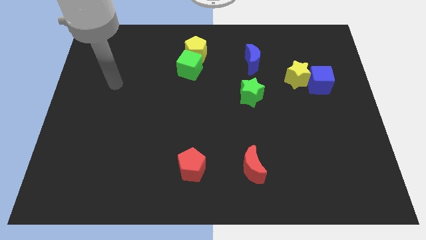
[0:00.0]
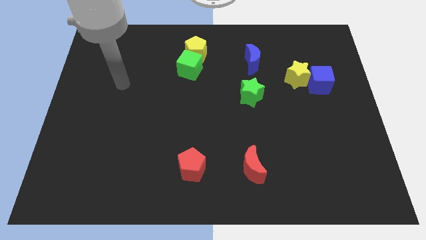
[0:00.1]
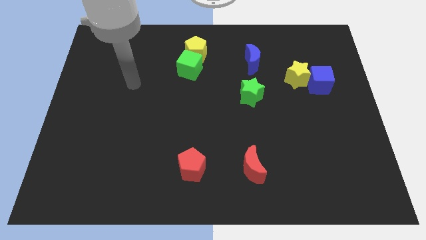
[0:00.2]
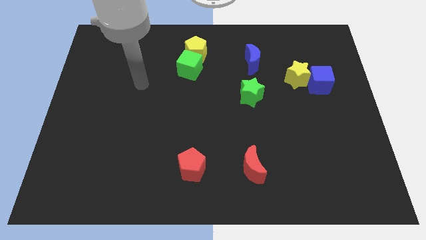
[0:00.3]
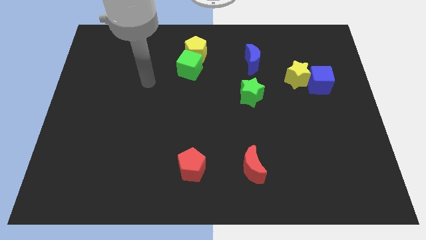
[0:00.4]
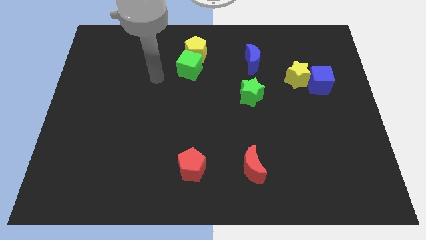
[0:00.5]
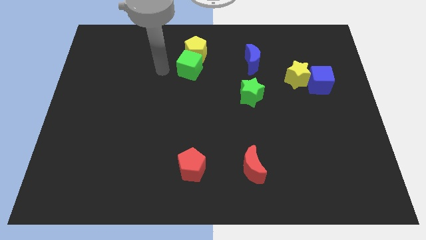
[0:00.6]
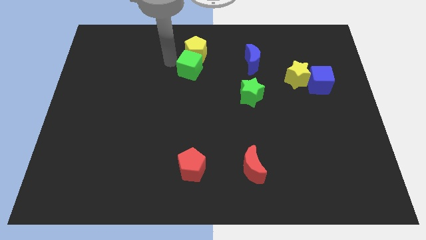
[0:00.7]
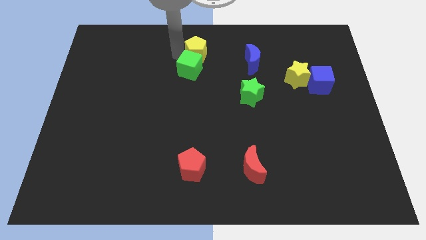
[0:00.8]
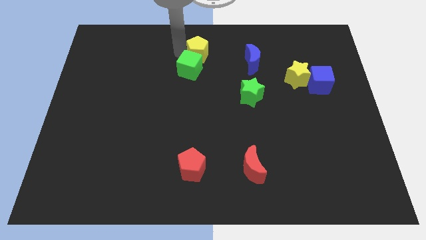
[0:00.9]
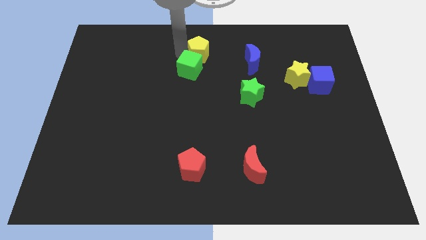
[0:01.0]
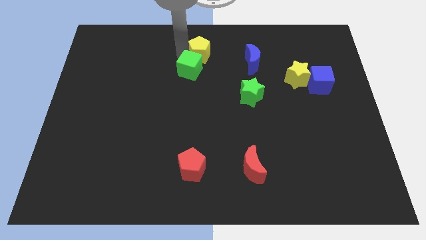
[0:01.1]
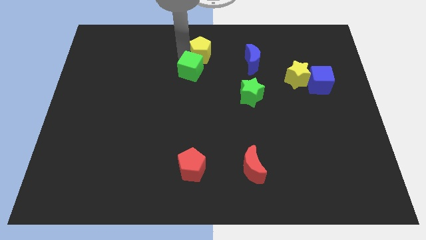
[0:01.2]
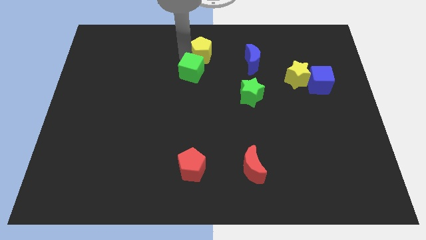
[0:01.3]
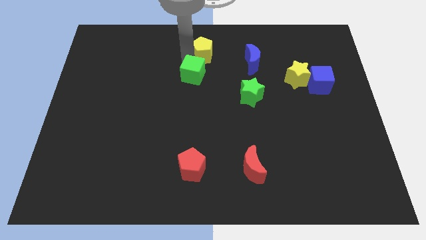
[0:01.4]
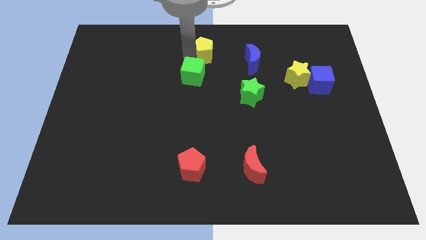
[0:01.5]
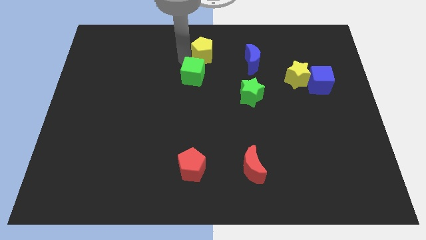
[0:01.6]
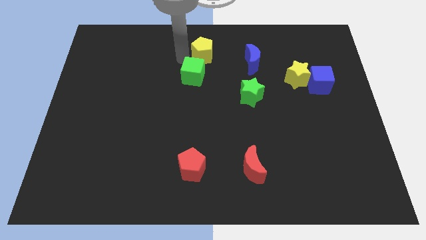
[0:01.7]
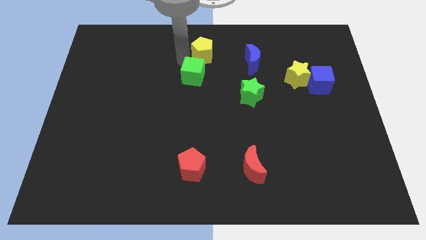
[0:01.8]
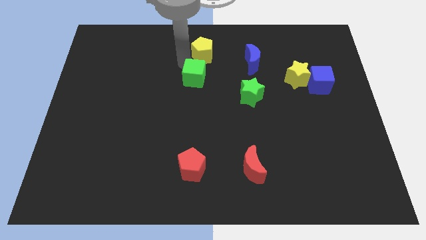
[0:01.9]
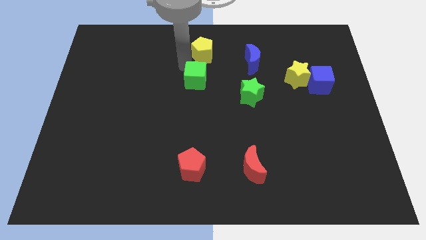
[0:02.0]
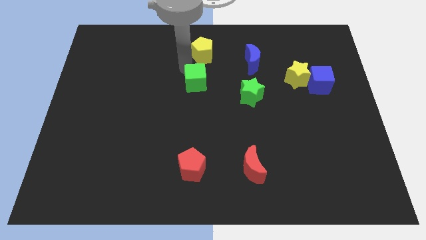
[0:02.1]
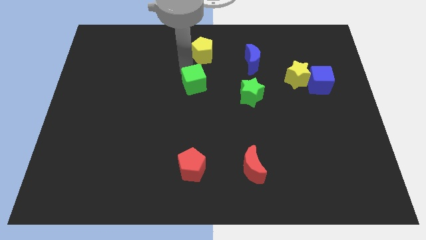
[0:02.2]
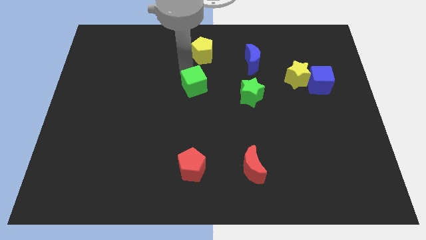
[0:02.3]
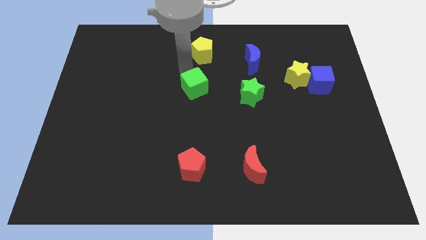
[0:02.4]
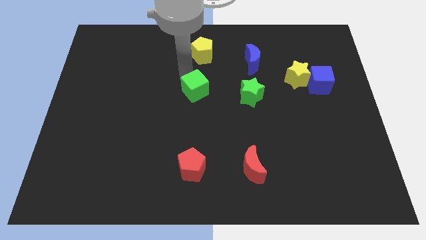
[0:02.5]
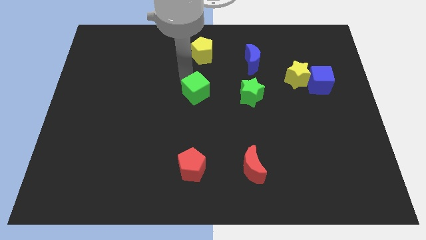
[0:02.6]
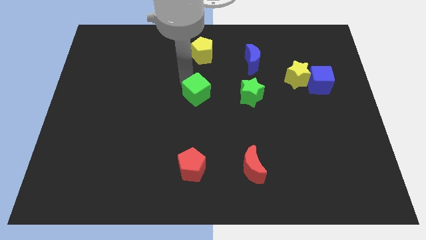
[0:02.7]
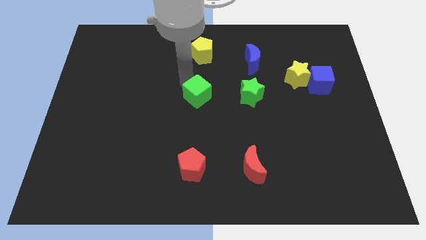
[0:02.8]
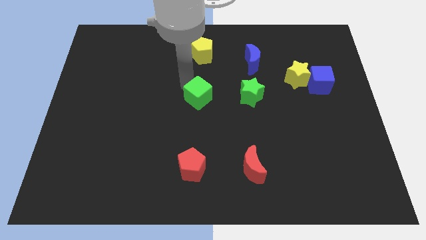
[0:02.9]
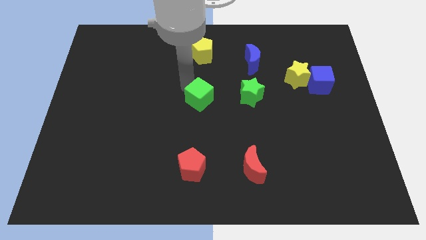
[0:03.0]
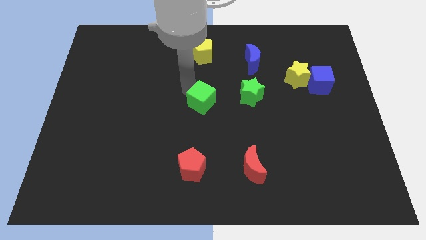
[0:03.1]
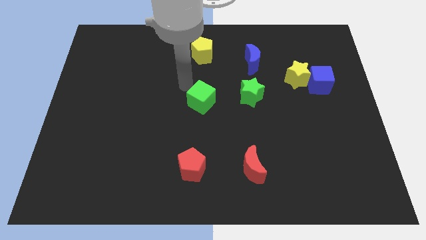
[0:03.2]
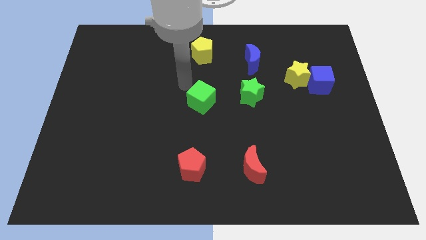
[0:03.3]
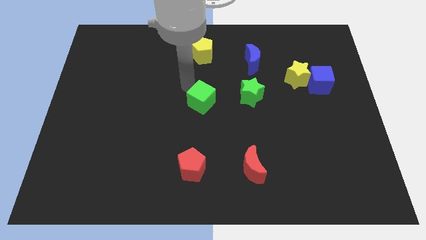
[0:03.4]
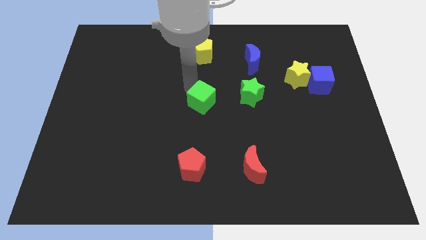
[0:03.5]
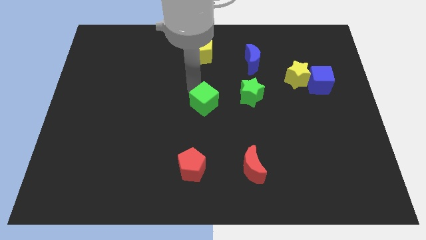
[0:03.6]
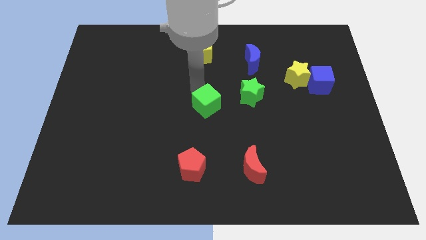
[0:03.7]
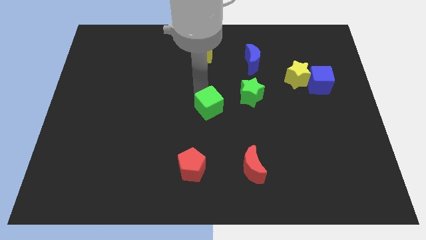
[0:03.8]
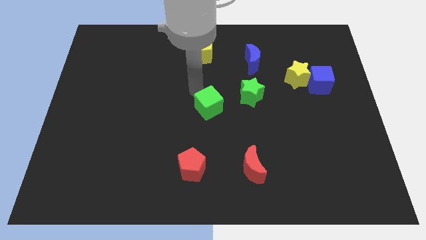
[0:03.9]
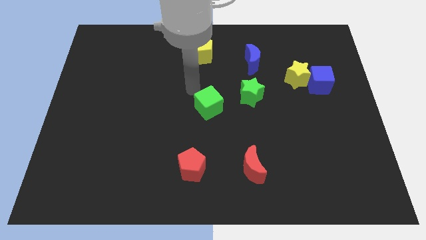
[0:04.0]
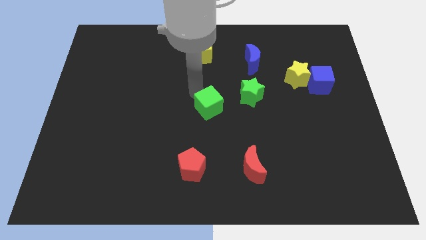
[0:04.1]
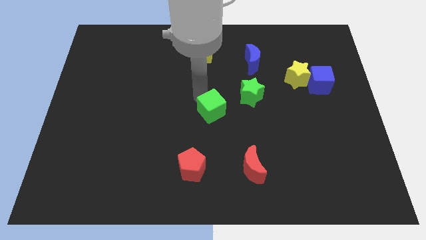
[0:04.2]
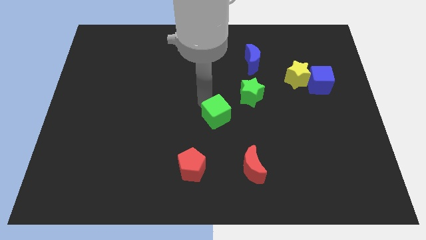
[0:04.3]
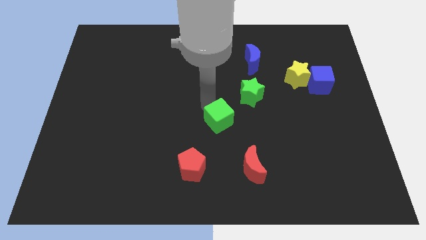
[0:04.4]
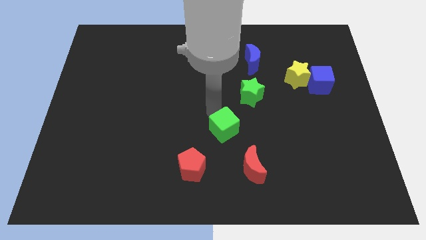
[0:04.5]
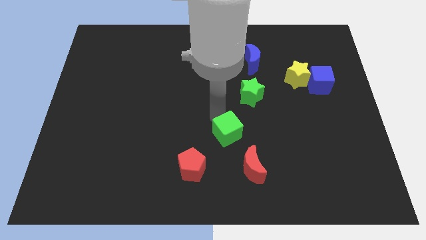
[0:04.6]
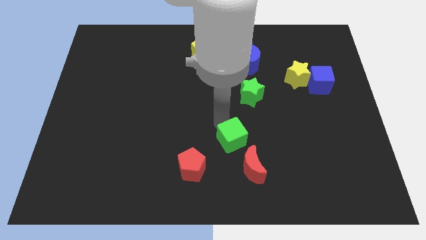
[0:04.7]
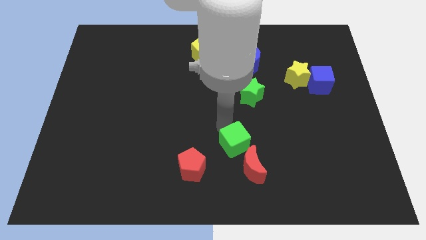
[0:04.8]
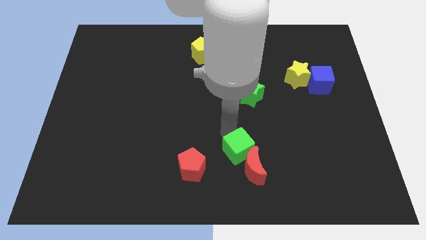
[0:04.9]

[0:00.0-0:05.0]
put the green cube to the red moon

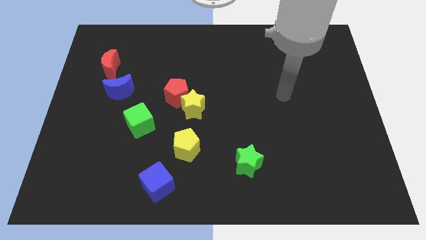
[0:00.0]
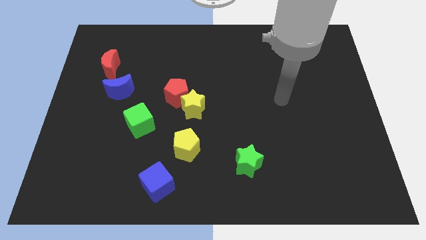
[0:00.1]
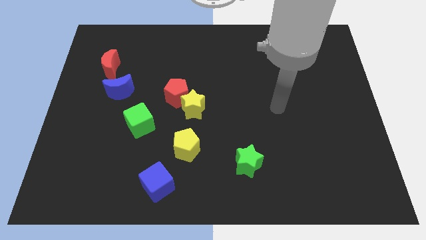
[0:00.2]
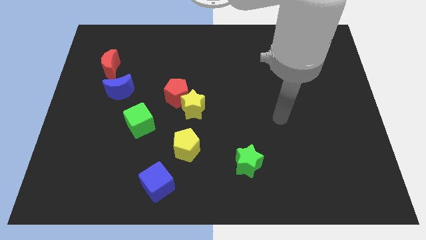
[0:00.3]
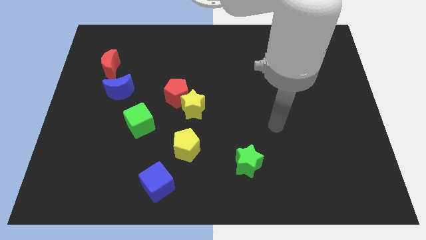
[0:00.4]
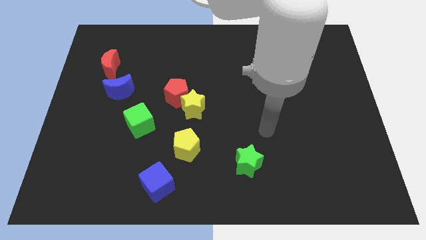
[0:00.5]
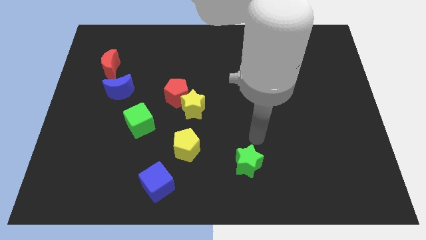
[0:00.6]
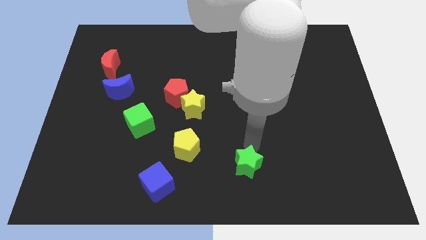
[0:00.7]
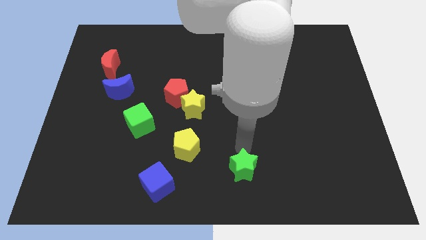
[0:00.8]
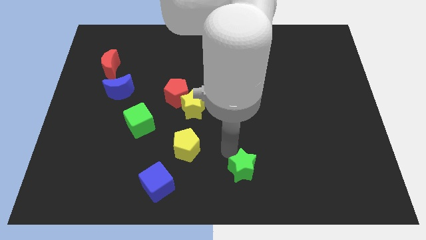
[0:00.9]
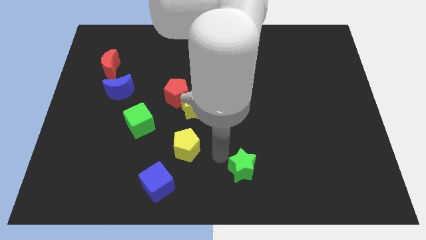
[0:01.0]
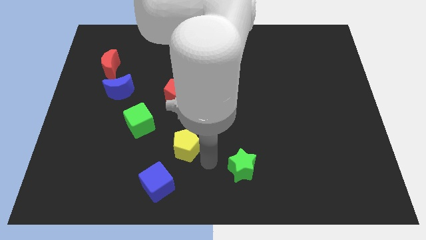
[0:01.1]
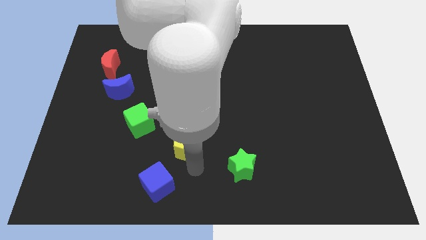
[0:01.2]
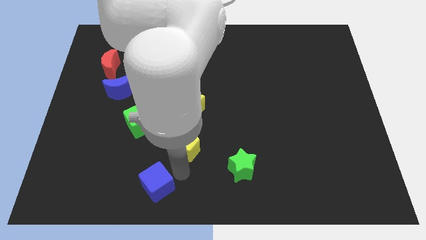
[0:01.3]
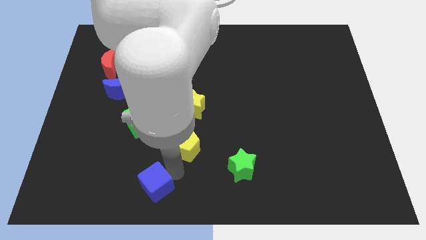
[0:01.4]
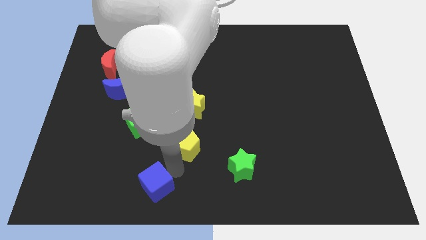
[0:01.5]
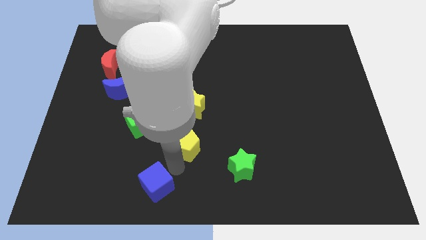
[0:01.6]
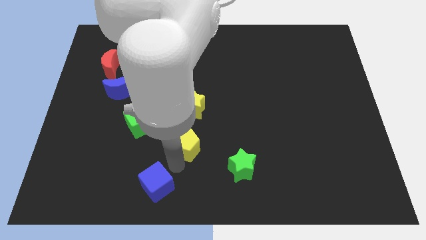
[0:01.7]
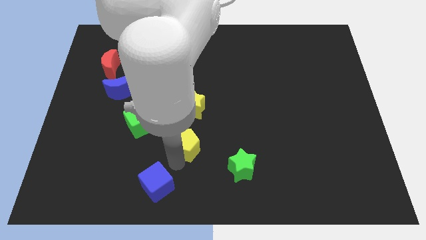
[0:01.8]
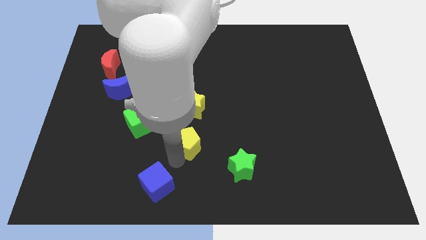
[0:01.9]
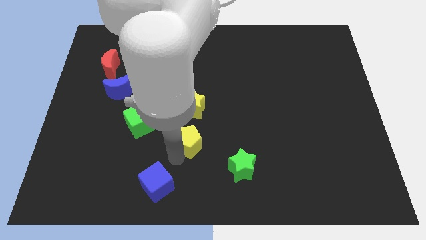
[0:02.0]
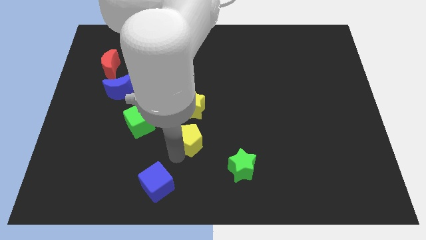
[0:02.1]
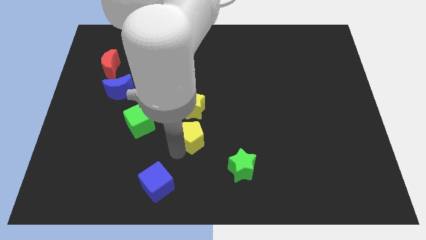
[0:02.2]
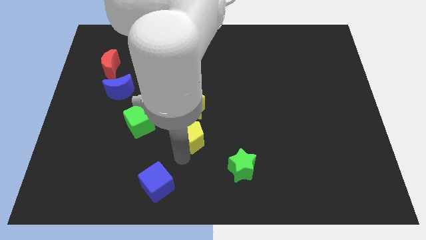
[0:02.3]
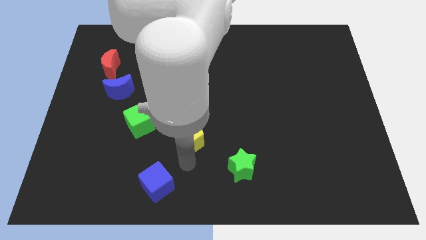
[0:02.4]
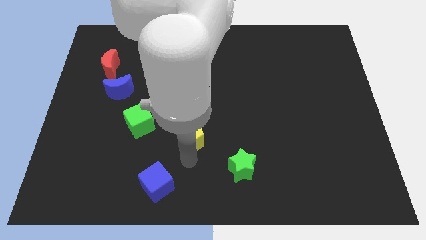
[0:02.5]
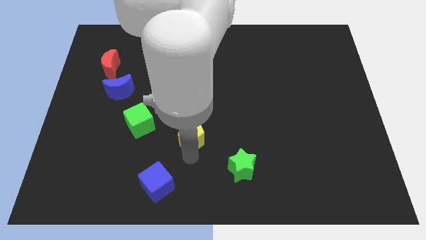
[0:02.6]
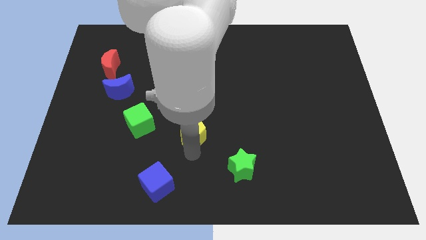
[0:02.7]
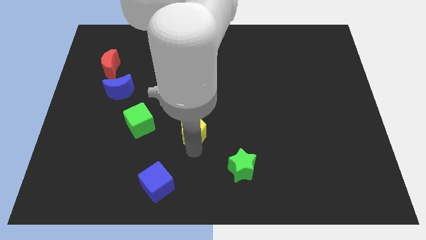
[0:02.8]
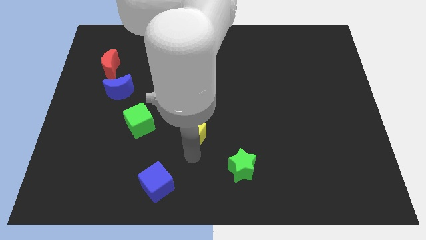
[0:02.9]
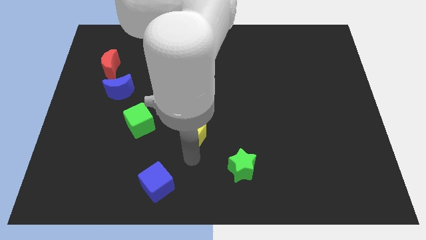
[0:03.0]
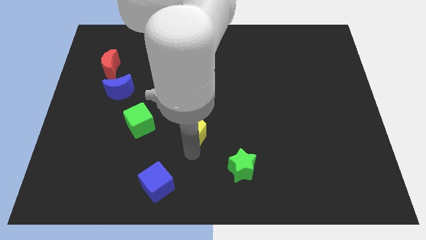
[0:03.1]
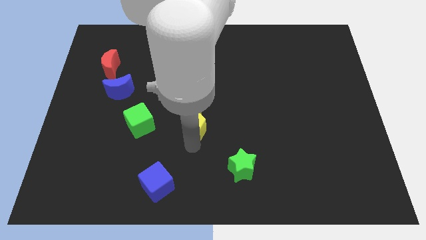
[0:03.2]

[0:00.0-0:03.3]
push the yellow pentagon towards the yellow star
